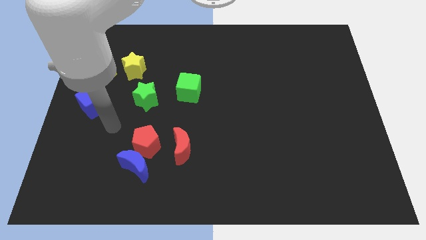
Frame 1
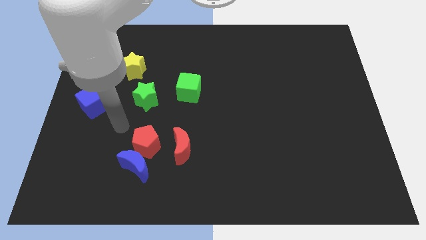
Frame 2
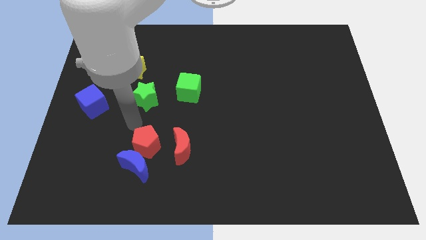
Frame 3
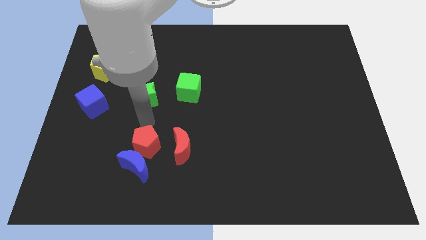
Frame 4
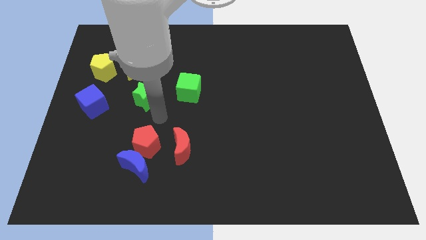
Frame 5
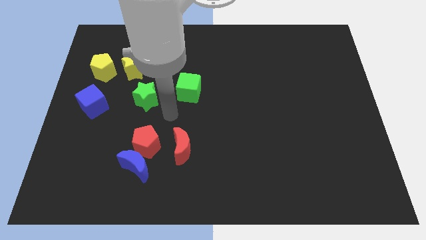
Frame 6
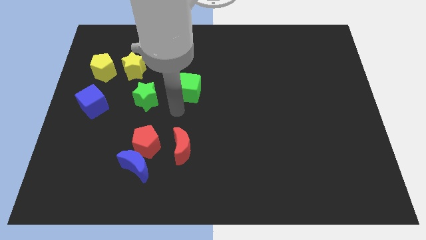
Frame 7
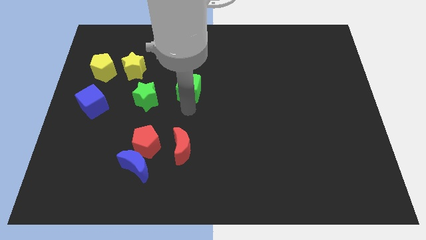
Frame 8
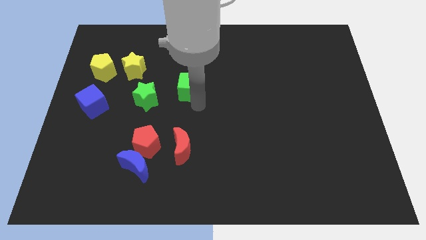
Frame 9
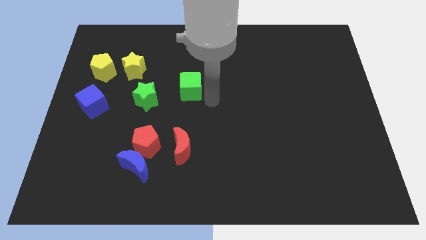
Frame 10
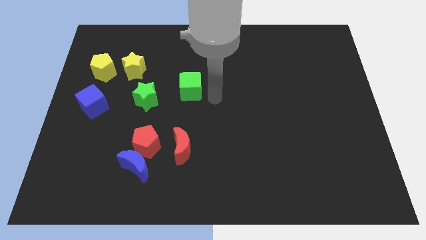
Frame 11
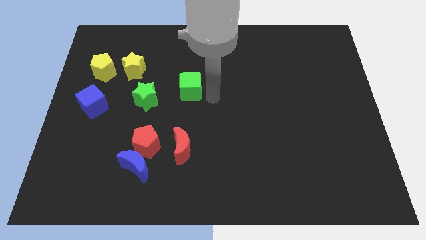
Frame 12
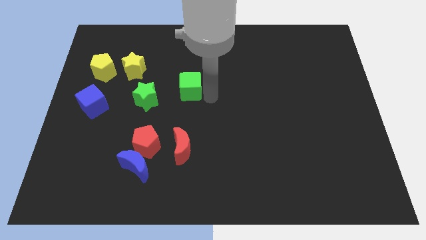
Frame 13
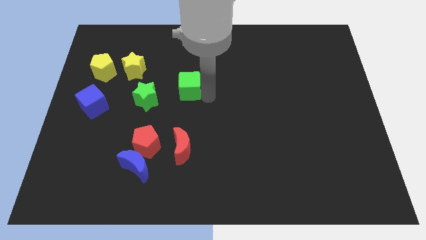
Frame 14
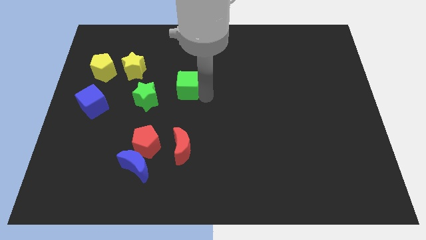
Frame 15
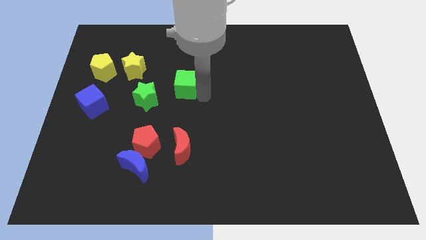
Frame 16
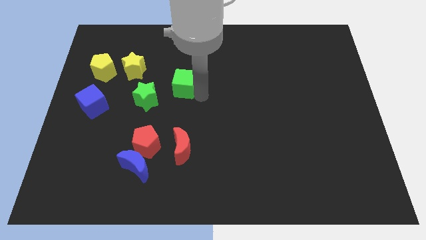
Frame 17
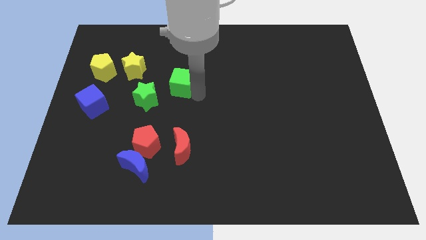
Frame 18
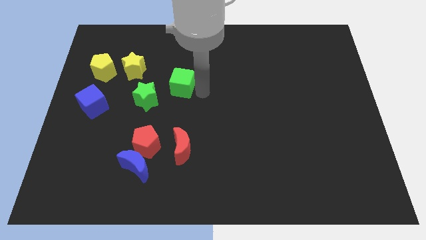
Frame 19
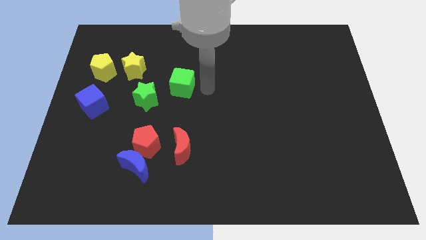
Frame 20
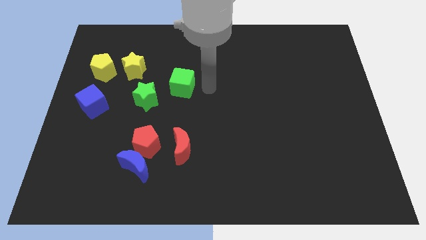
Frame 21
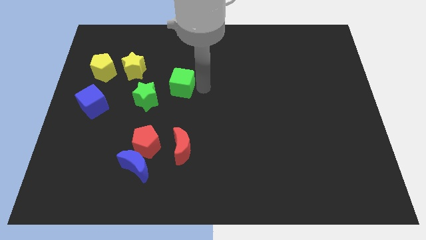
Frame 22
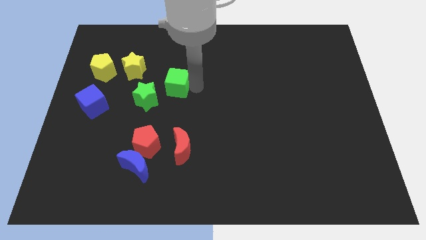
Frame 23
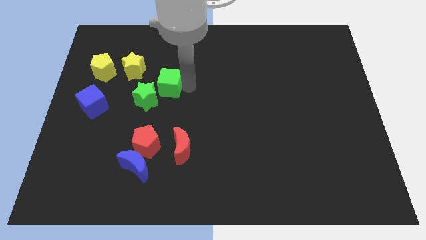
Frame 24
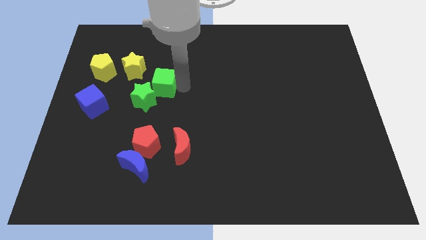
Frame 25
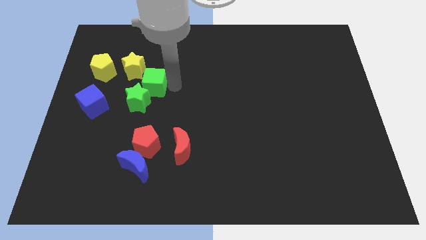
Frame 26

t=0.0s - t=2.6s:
slightly slide the green cube left

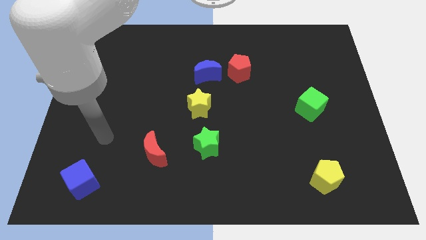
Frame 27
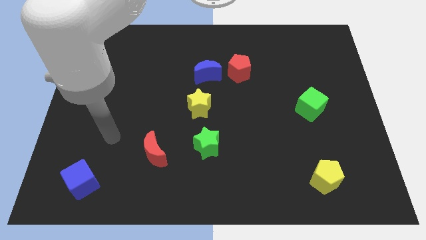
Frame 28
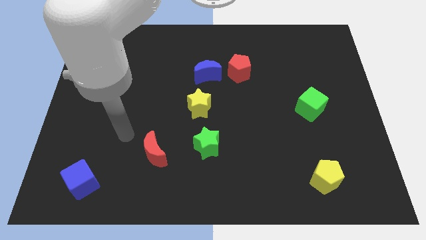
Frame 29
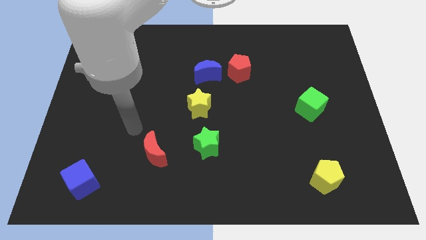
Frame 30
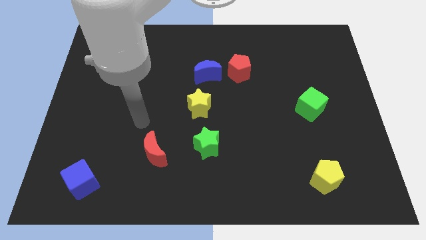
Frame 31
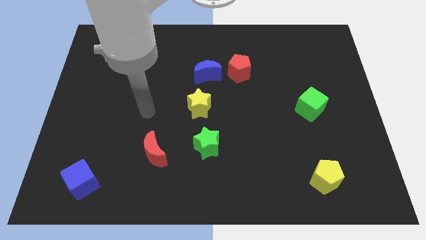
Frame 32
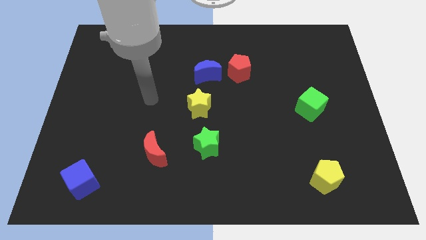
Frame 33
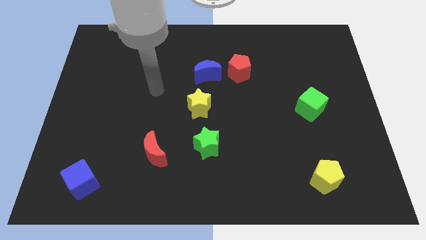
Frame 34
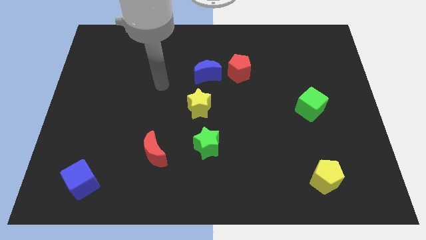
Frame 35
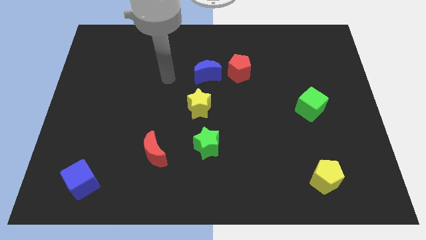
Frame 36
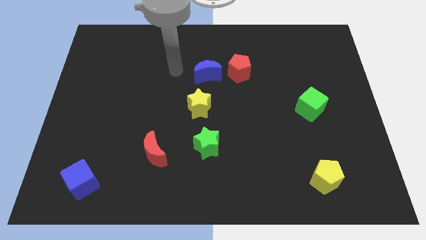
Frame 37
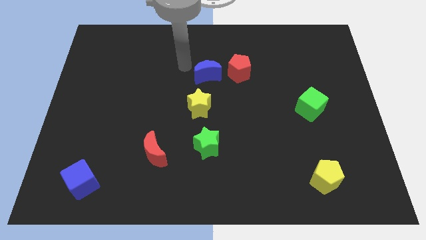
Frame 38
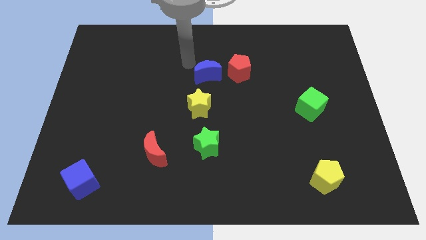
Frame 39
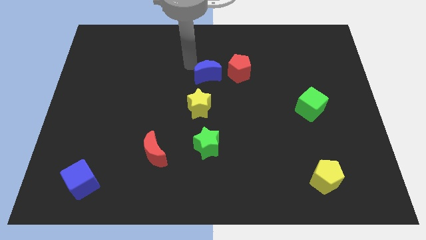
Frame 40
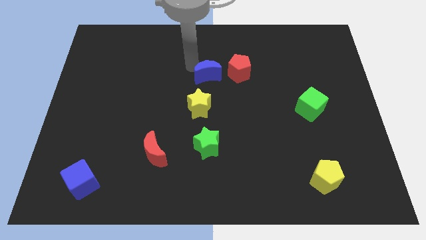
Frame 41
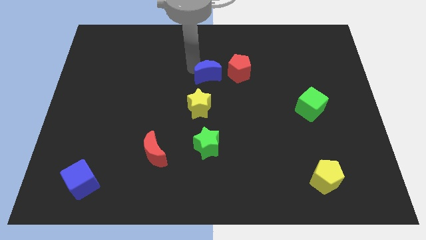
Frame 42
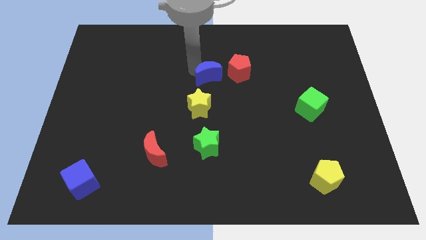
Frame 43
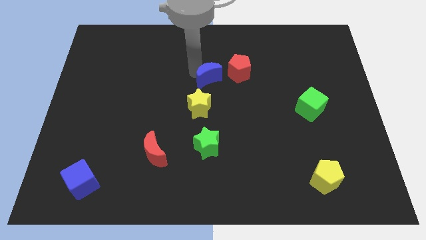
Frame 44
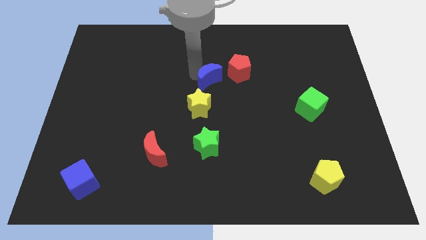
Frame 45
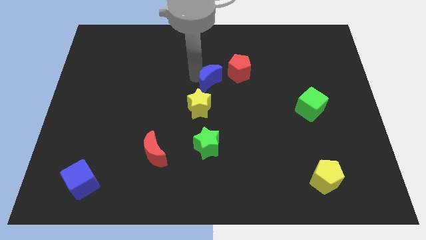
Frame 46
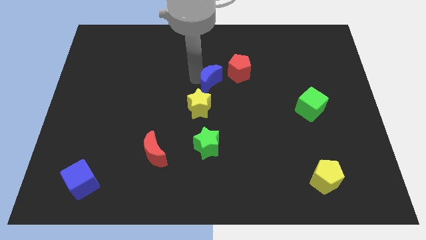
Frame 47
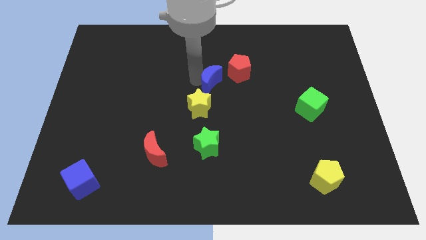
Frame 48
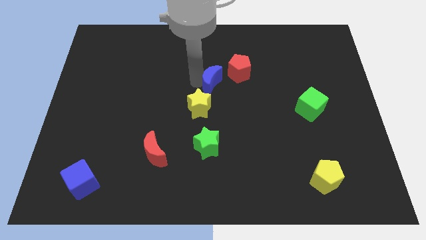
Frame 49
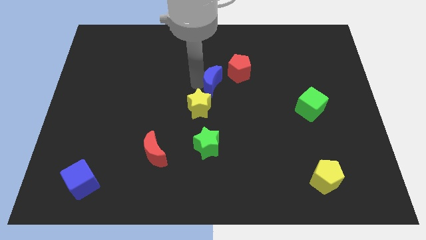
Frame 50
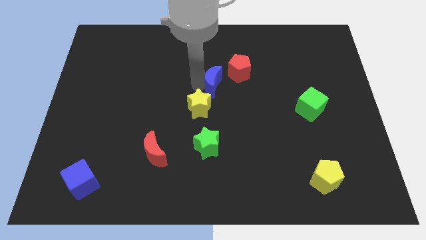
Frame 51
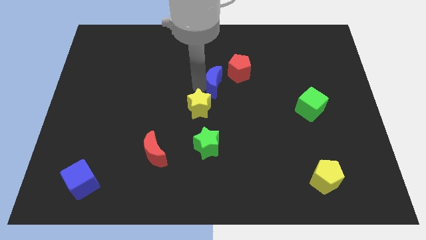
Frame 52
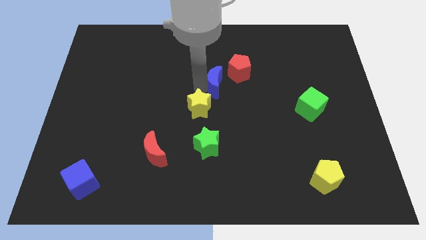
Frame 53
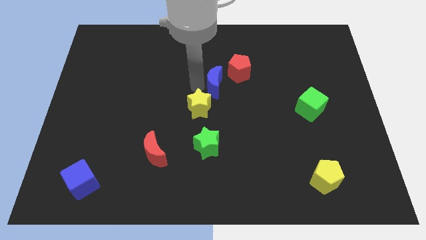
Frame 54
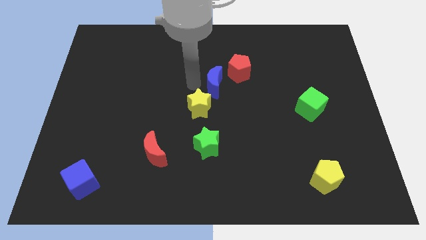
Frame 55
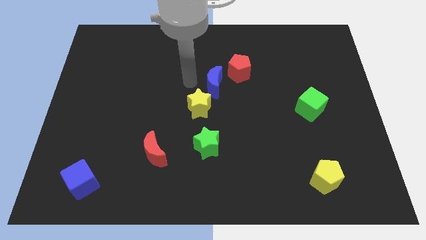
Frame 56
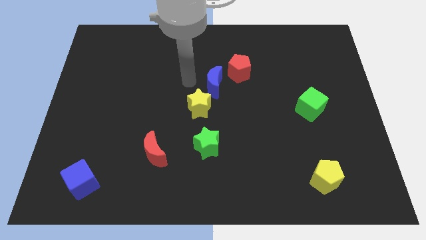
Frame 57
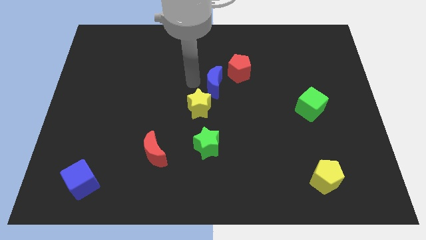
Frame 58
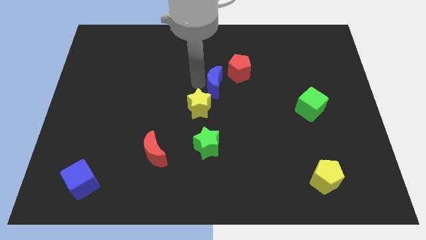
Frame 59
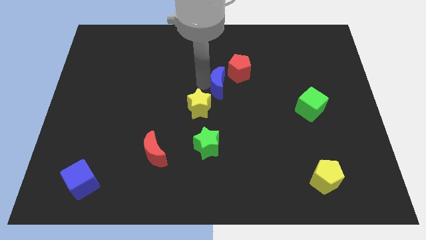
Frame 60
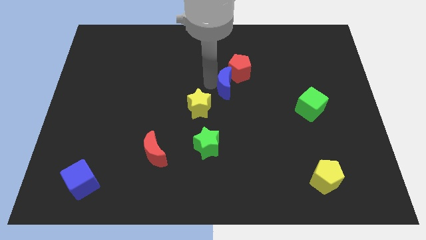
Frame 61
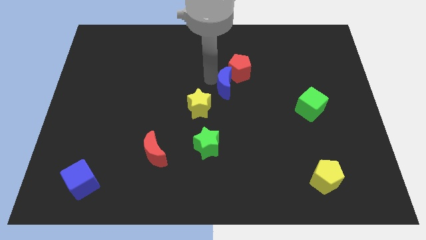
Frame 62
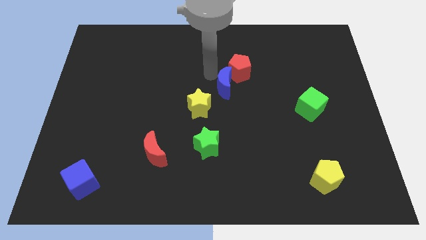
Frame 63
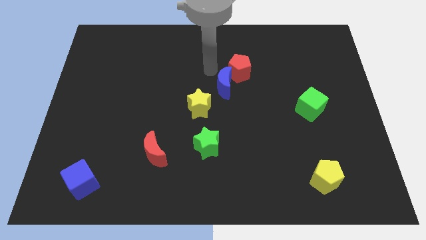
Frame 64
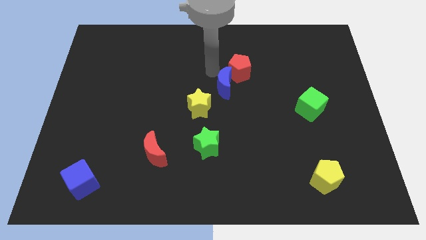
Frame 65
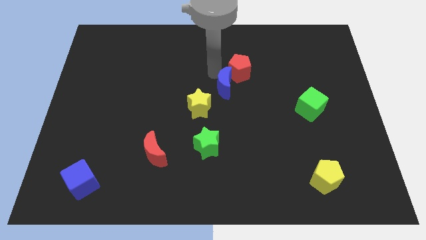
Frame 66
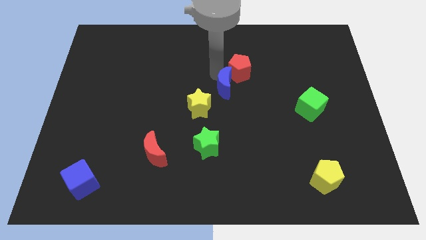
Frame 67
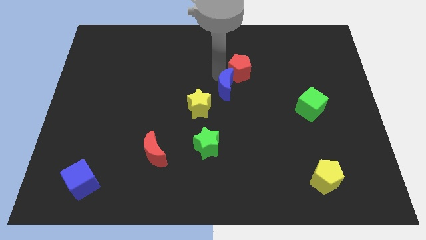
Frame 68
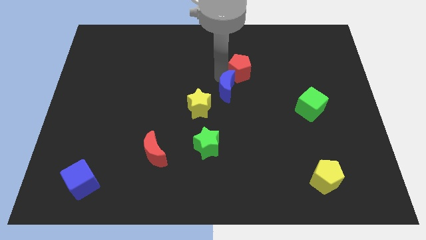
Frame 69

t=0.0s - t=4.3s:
slide the blue moon a bit down and right

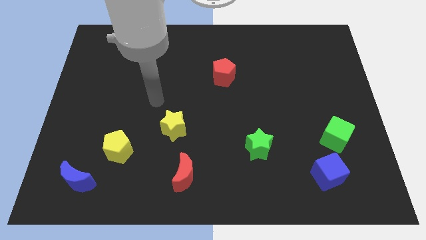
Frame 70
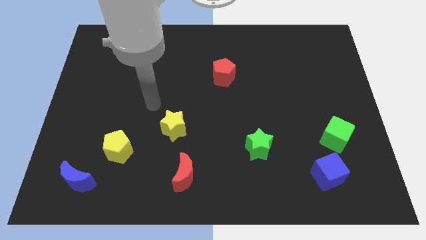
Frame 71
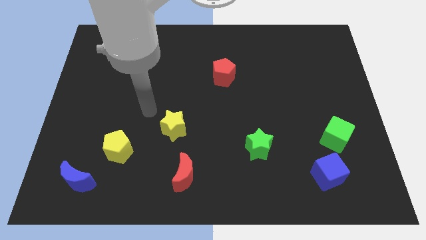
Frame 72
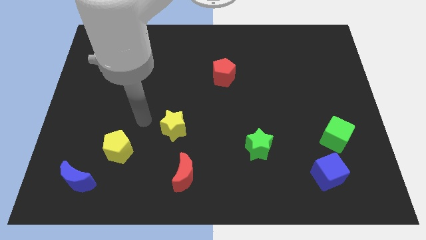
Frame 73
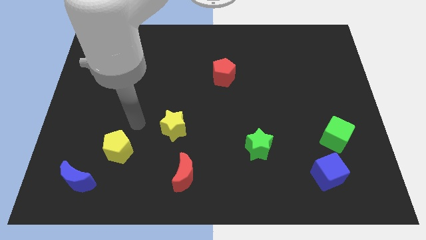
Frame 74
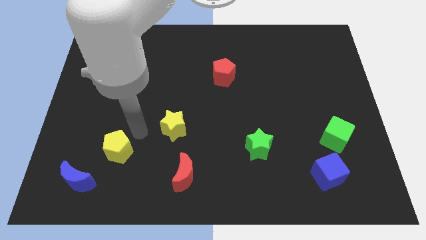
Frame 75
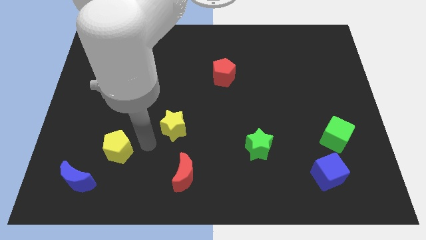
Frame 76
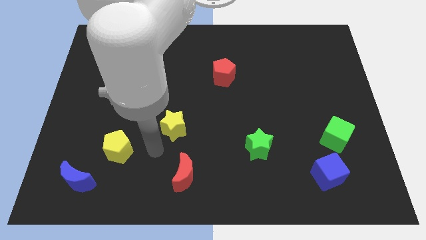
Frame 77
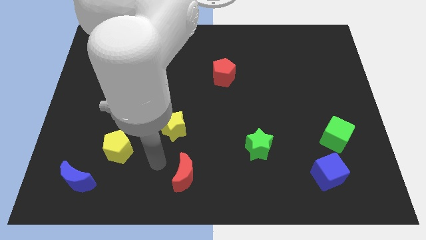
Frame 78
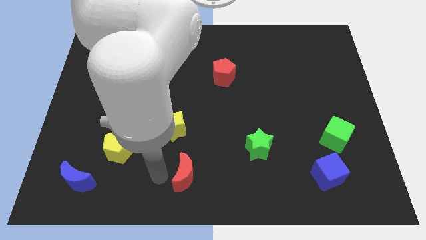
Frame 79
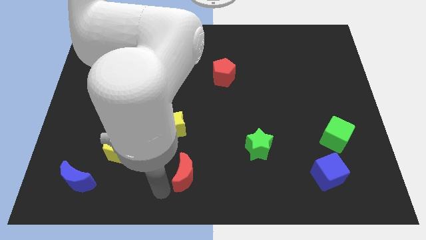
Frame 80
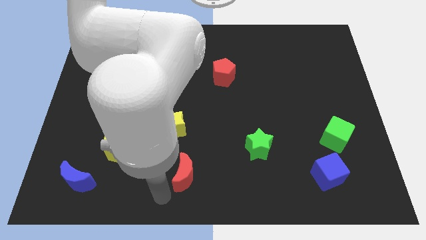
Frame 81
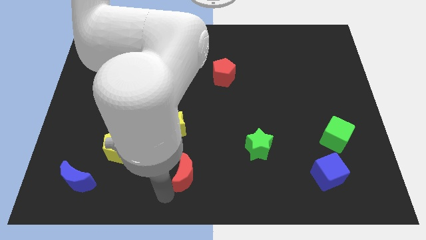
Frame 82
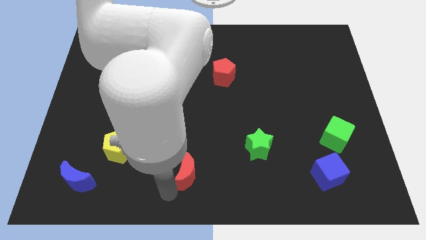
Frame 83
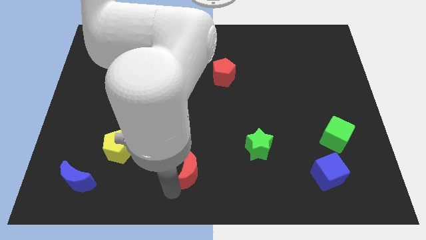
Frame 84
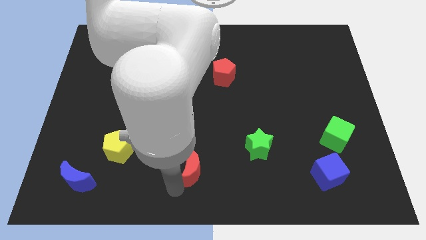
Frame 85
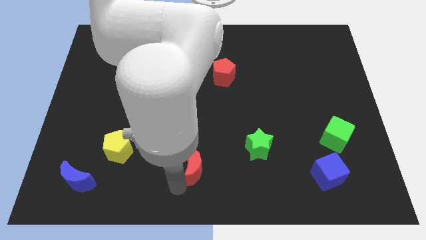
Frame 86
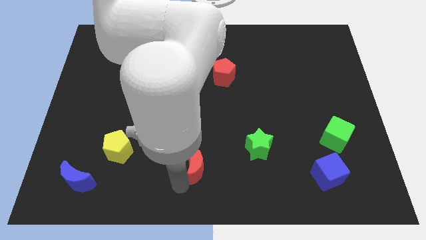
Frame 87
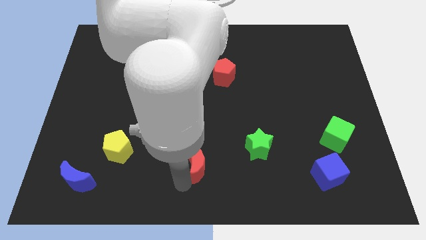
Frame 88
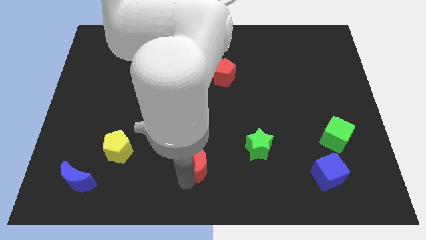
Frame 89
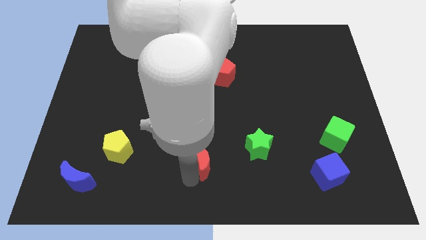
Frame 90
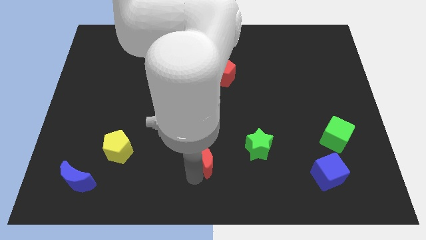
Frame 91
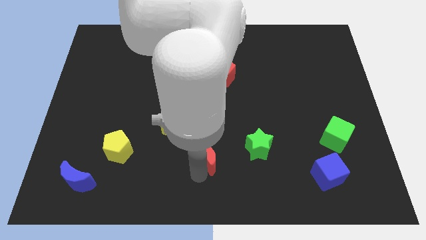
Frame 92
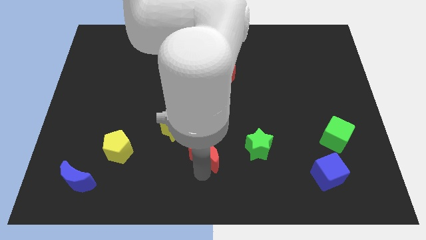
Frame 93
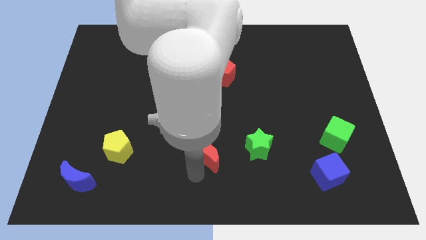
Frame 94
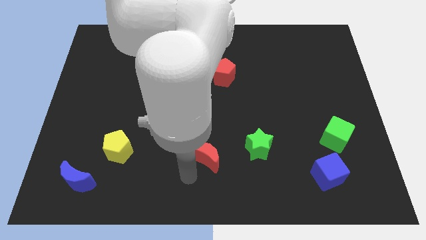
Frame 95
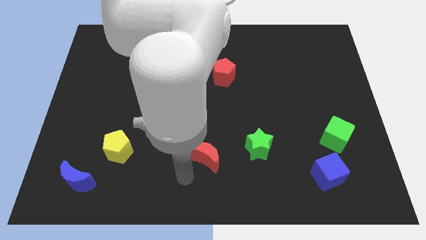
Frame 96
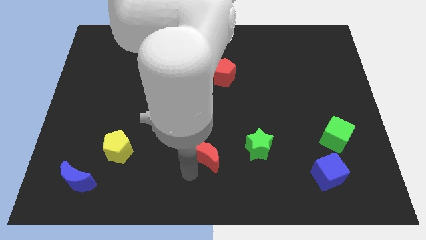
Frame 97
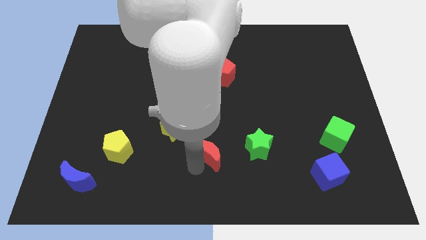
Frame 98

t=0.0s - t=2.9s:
slightly push the red moon diagonally upwards and right
